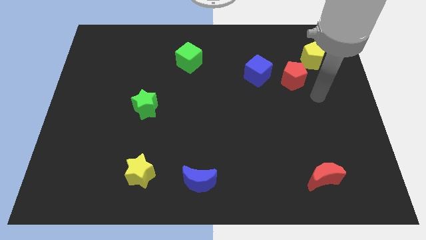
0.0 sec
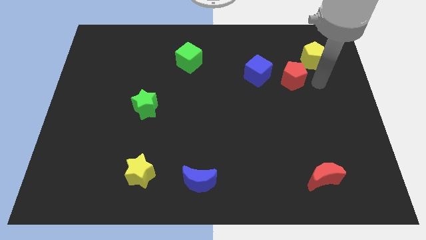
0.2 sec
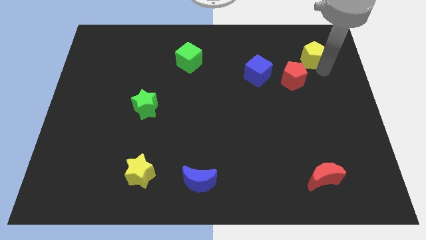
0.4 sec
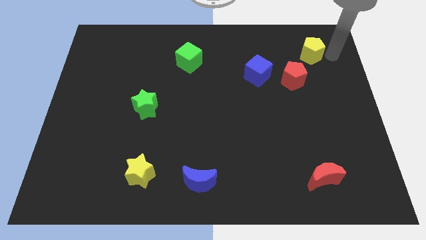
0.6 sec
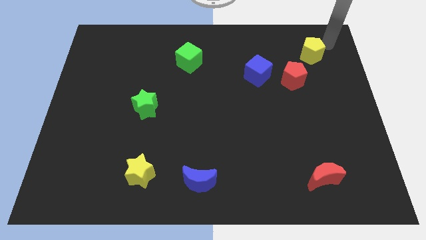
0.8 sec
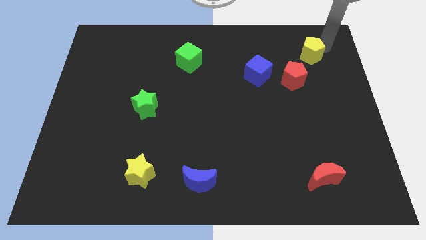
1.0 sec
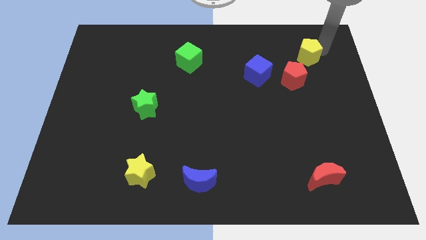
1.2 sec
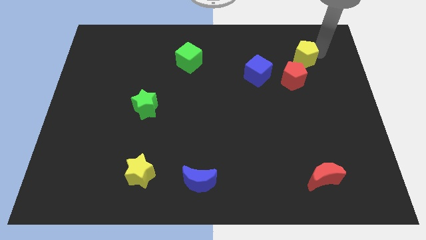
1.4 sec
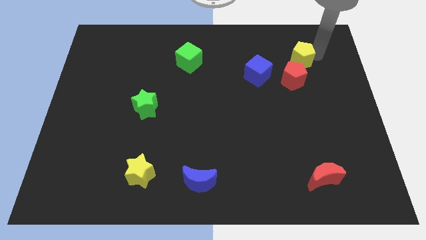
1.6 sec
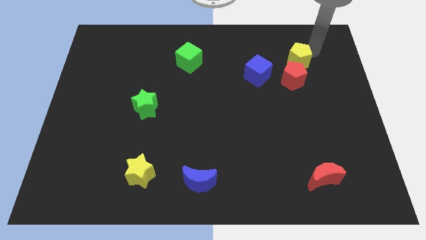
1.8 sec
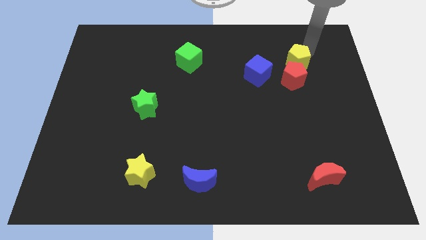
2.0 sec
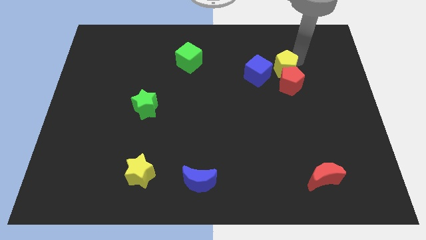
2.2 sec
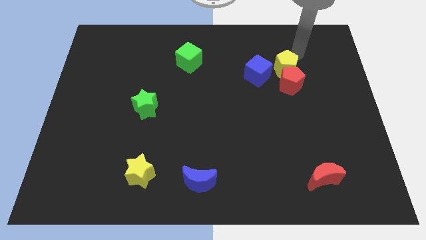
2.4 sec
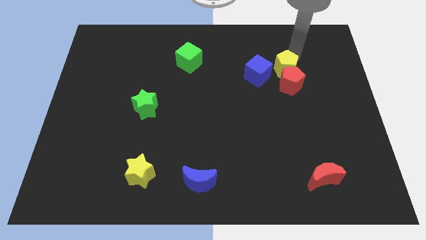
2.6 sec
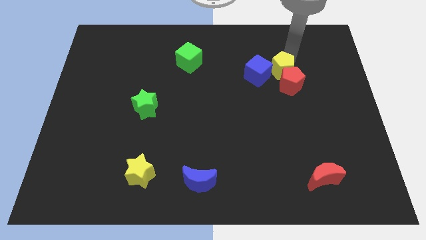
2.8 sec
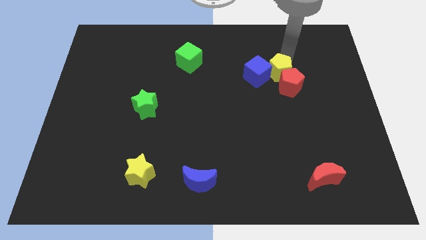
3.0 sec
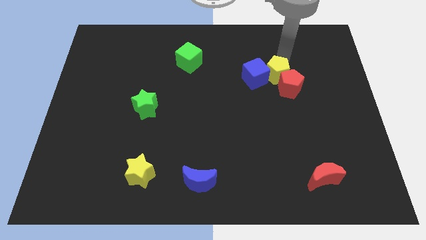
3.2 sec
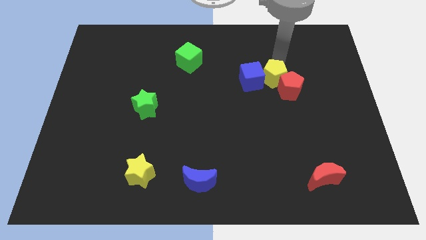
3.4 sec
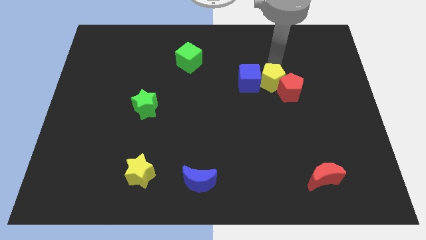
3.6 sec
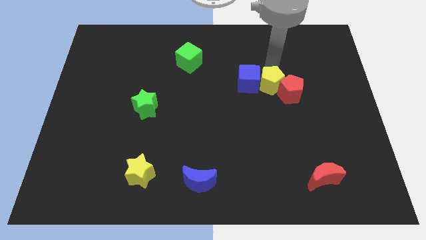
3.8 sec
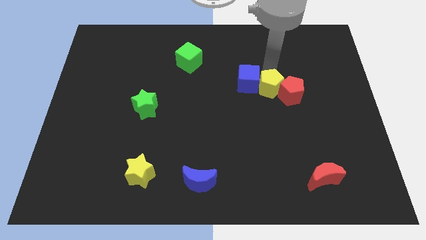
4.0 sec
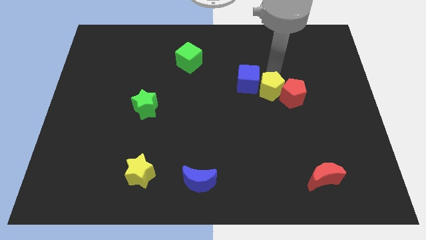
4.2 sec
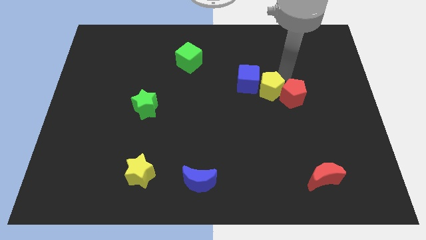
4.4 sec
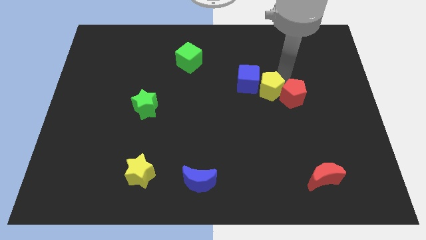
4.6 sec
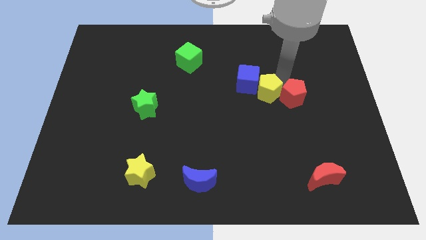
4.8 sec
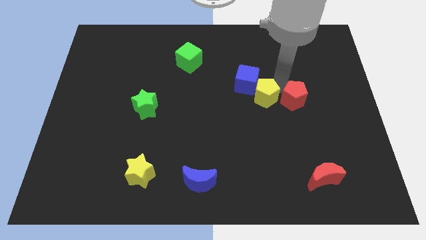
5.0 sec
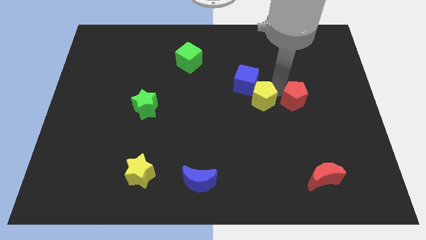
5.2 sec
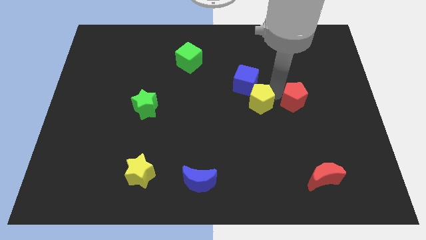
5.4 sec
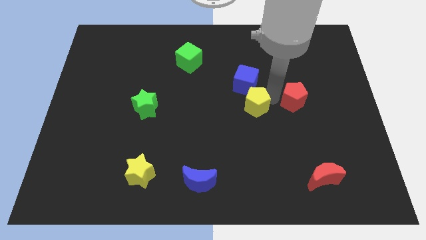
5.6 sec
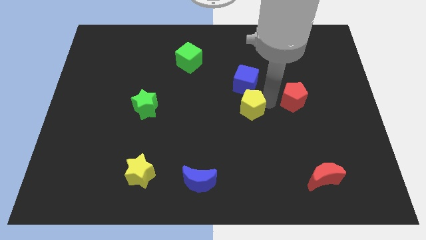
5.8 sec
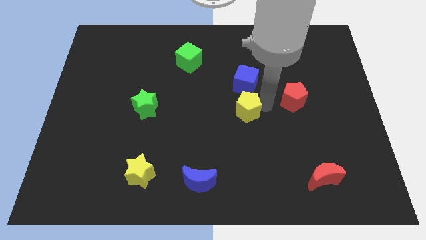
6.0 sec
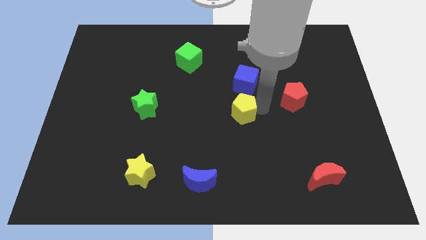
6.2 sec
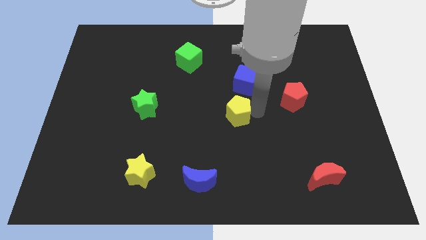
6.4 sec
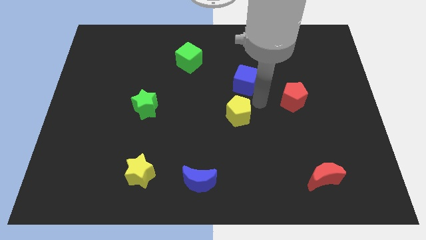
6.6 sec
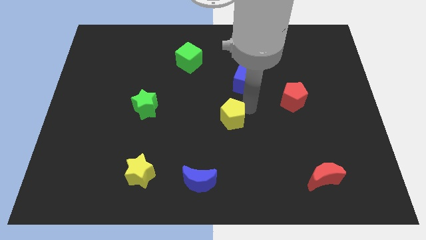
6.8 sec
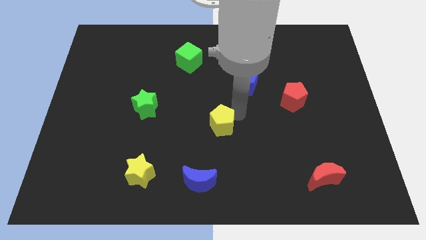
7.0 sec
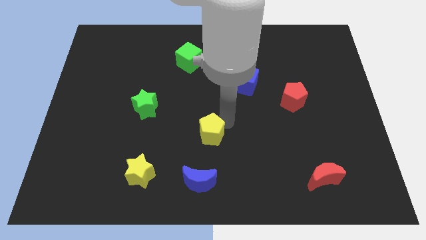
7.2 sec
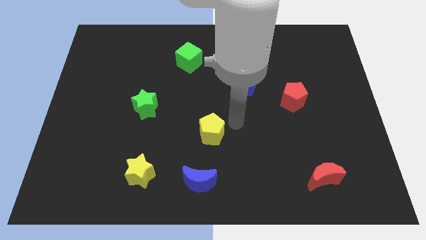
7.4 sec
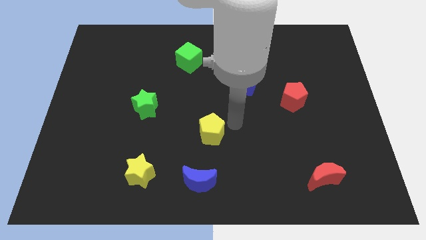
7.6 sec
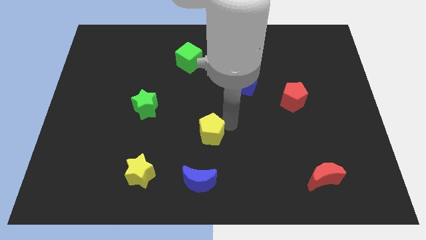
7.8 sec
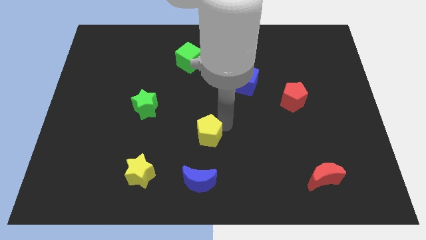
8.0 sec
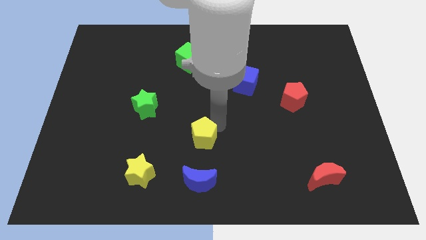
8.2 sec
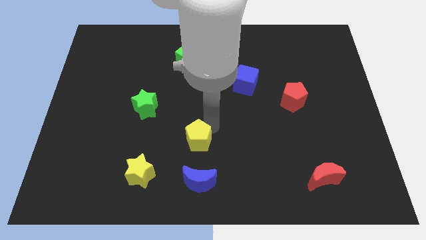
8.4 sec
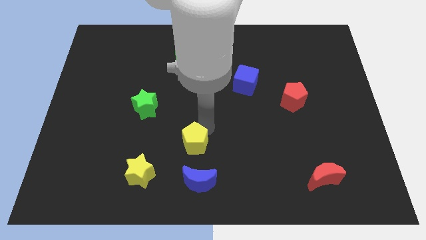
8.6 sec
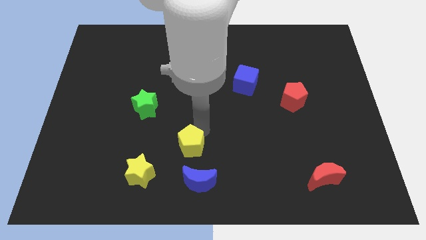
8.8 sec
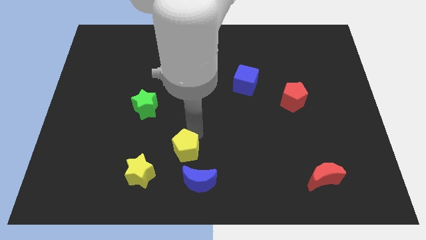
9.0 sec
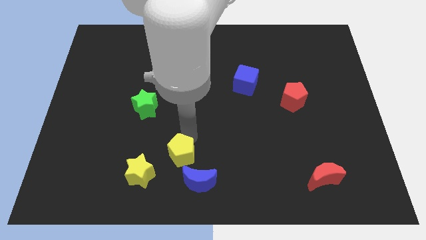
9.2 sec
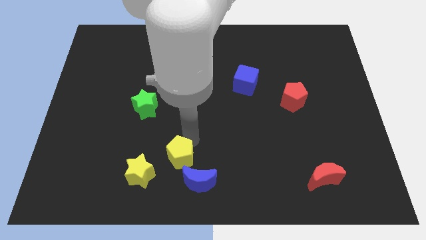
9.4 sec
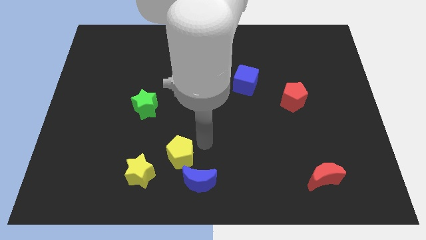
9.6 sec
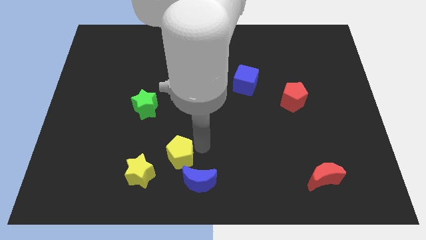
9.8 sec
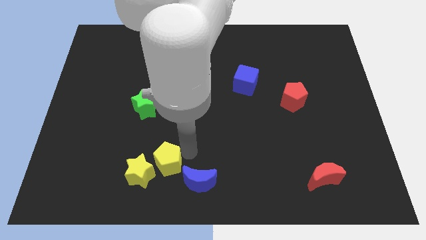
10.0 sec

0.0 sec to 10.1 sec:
push the yellow pentagon next to the yellow star
